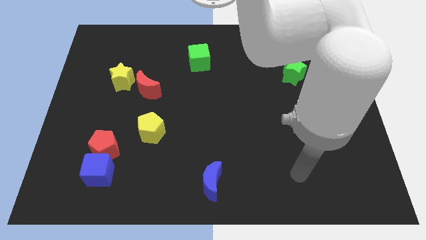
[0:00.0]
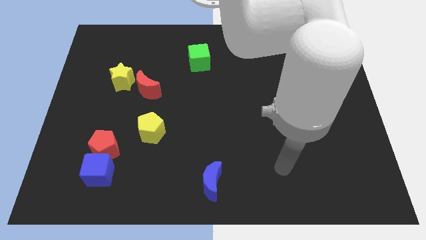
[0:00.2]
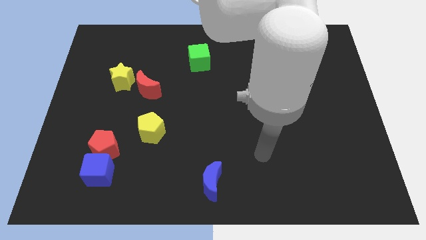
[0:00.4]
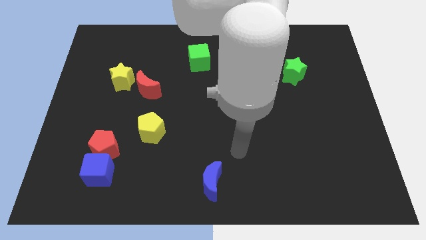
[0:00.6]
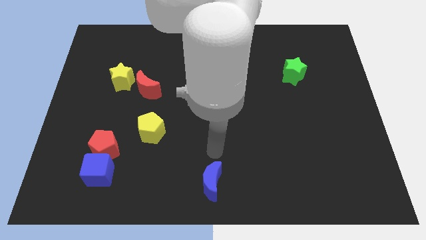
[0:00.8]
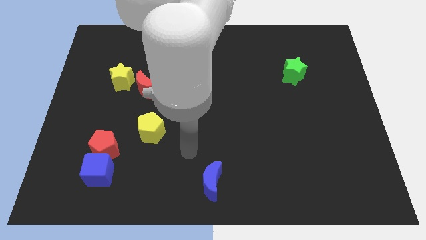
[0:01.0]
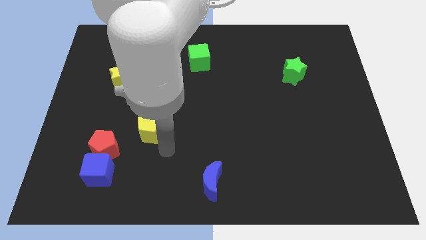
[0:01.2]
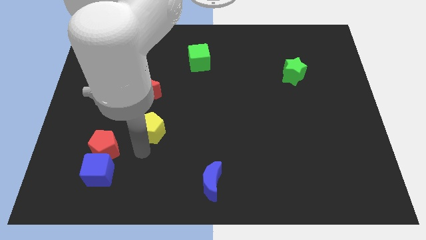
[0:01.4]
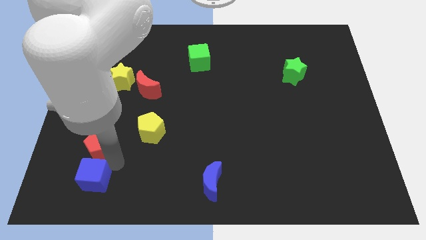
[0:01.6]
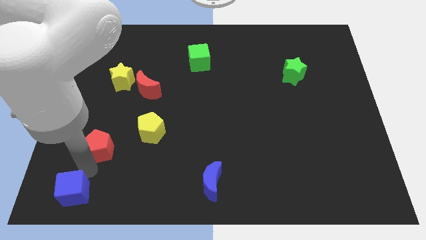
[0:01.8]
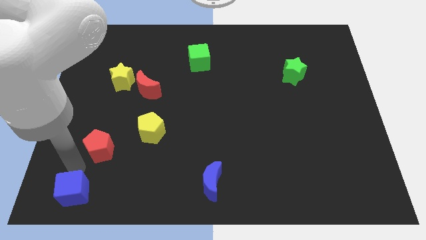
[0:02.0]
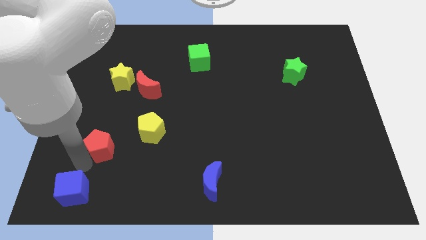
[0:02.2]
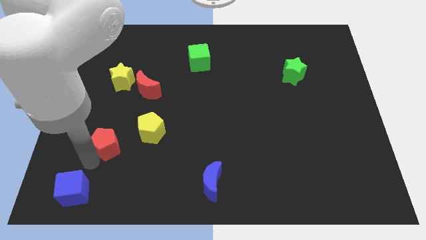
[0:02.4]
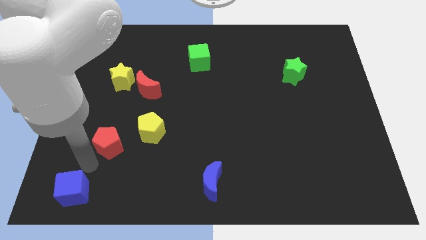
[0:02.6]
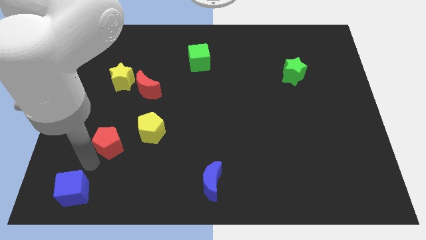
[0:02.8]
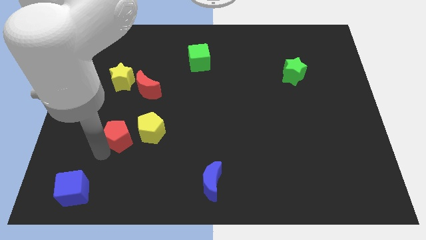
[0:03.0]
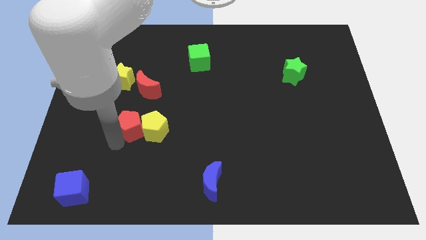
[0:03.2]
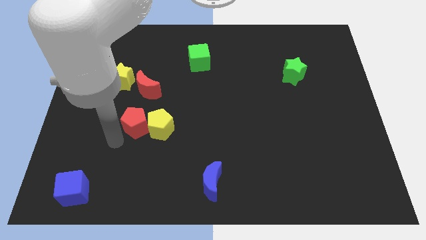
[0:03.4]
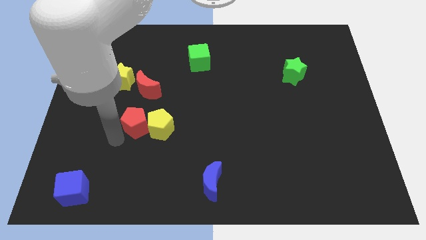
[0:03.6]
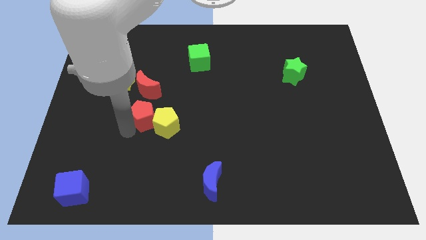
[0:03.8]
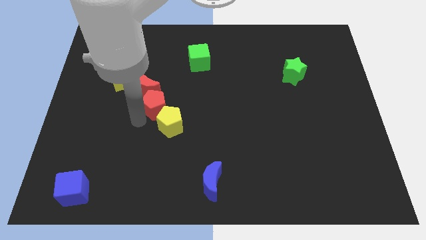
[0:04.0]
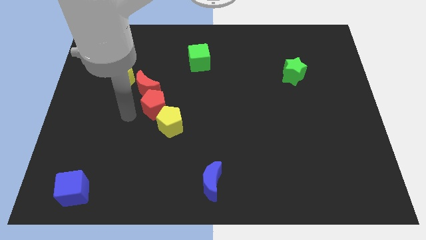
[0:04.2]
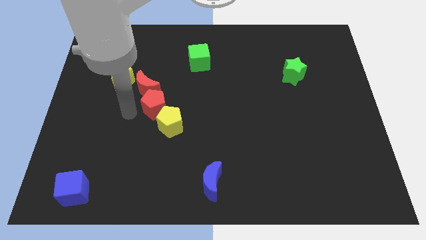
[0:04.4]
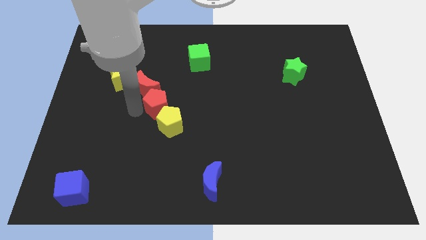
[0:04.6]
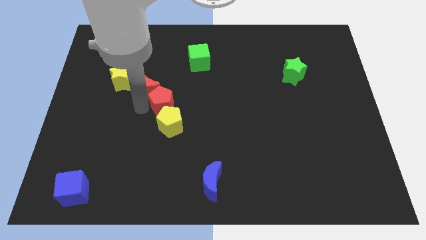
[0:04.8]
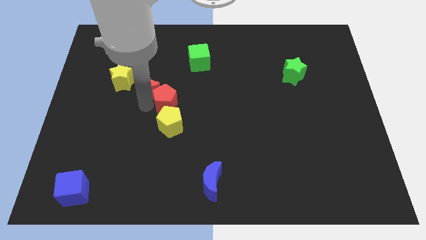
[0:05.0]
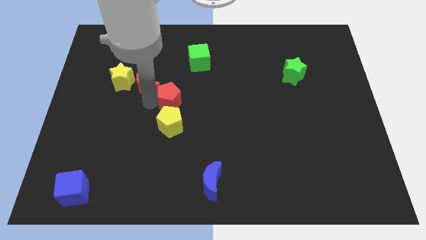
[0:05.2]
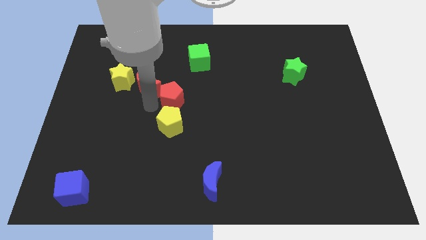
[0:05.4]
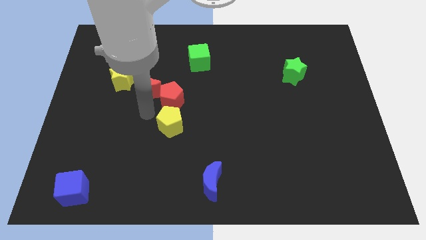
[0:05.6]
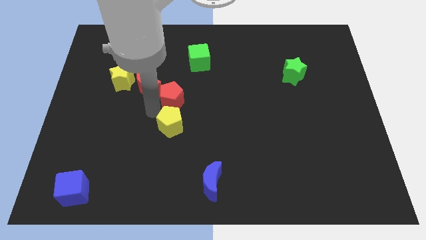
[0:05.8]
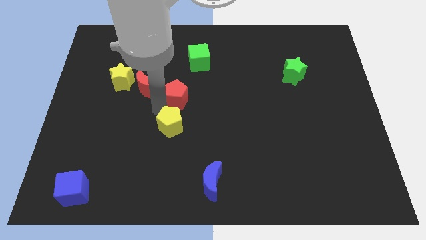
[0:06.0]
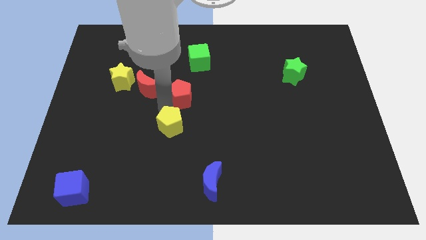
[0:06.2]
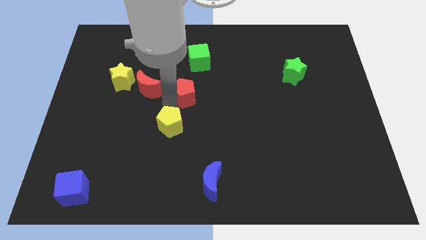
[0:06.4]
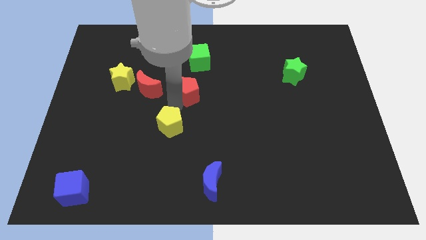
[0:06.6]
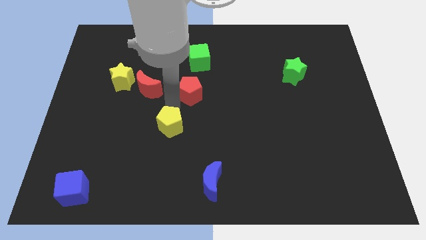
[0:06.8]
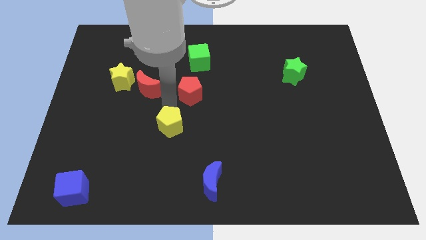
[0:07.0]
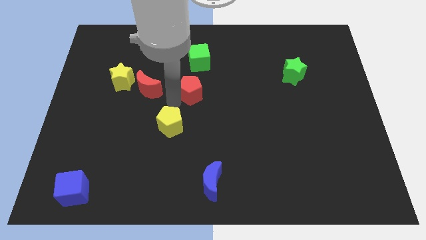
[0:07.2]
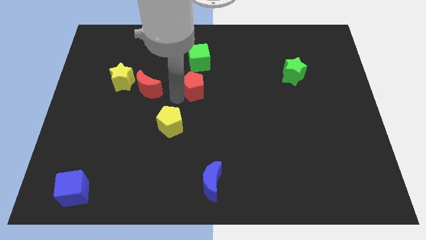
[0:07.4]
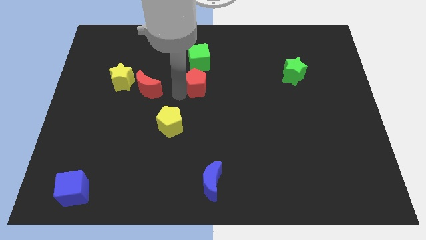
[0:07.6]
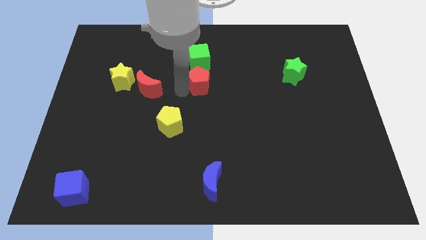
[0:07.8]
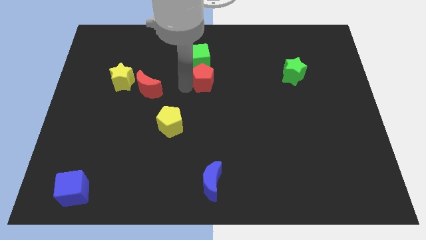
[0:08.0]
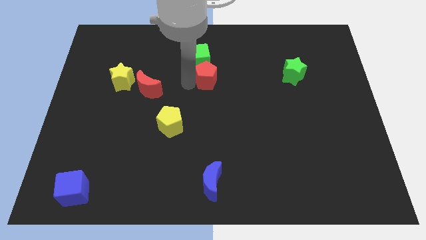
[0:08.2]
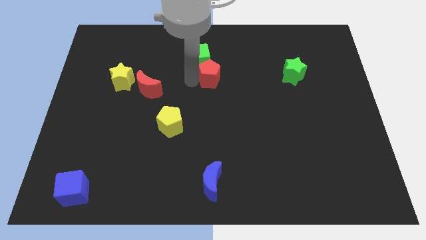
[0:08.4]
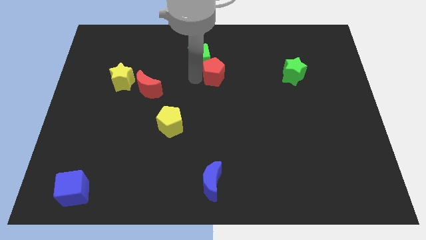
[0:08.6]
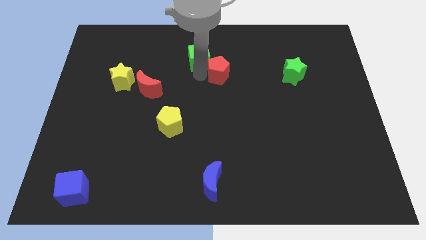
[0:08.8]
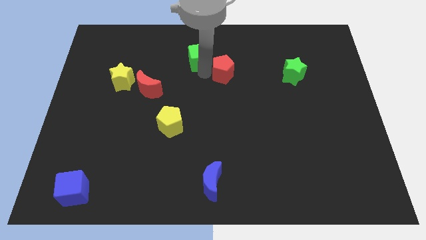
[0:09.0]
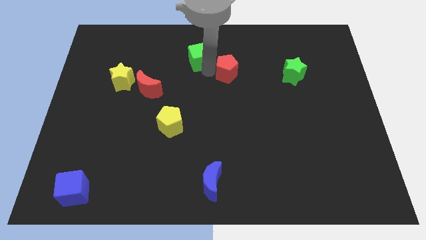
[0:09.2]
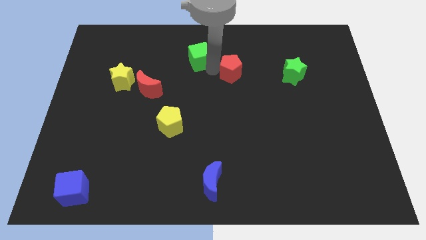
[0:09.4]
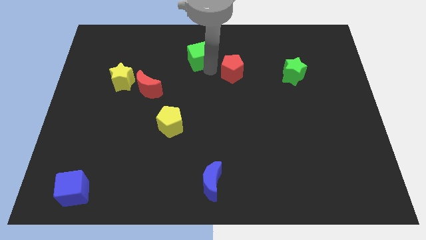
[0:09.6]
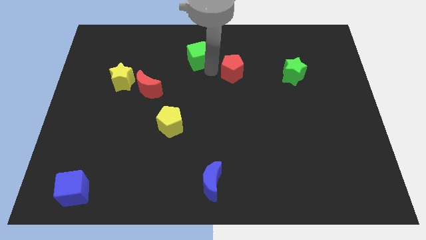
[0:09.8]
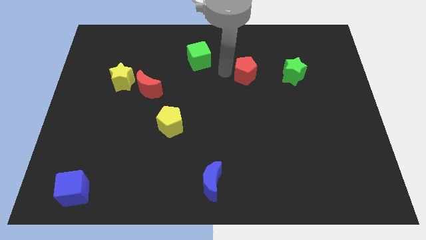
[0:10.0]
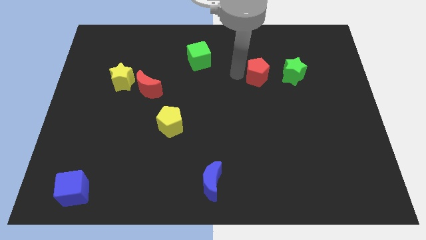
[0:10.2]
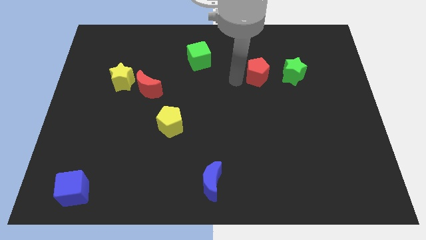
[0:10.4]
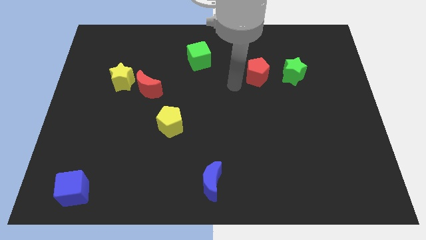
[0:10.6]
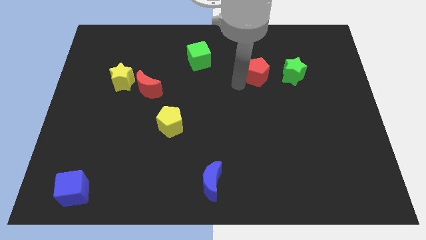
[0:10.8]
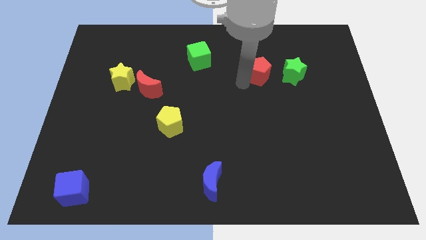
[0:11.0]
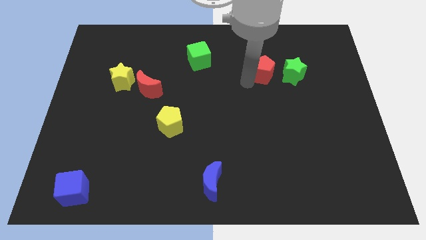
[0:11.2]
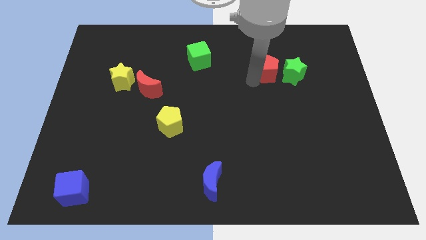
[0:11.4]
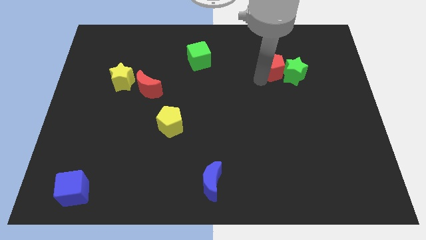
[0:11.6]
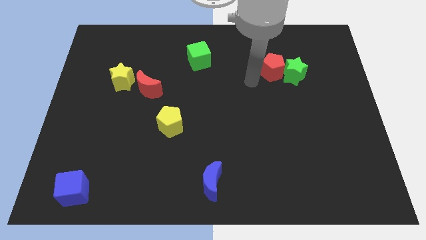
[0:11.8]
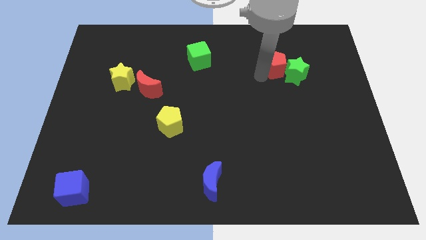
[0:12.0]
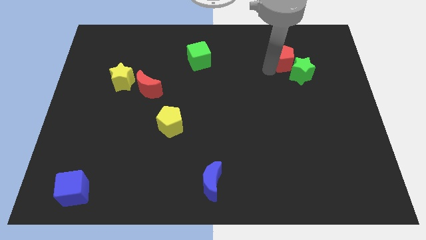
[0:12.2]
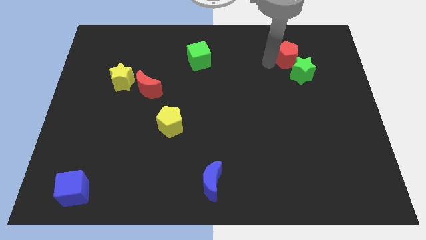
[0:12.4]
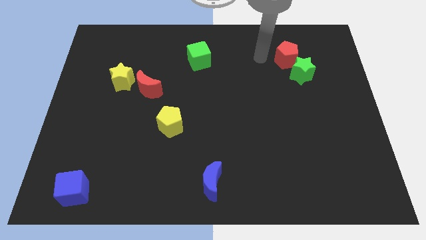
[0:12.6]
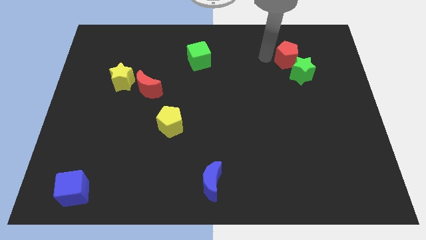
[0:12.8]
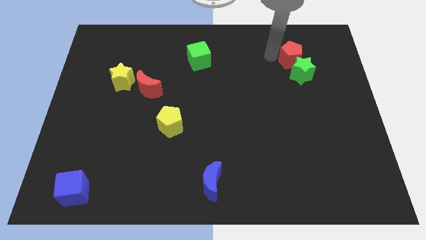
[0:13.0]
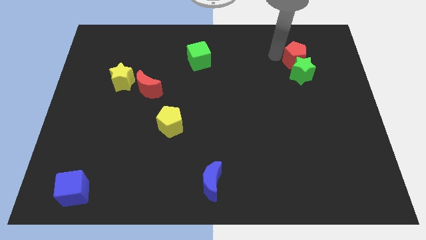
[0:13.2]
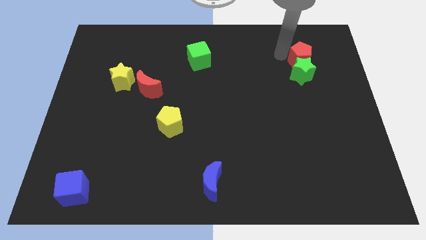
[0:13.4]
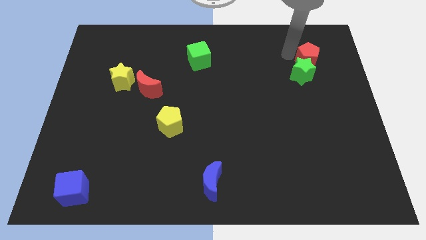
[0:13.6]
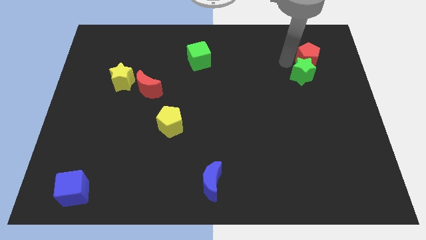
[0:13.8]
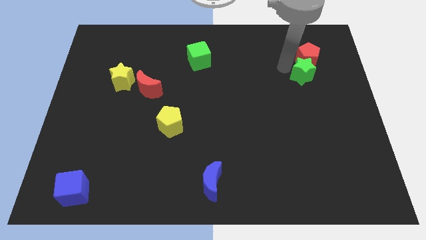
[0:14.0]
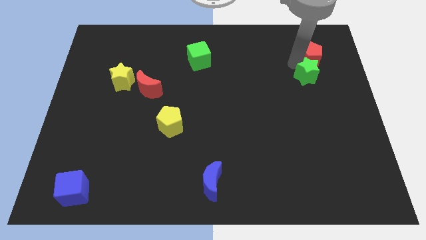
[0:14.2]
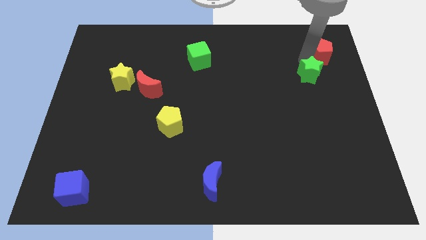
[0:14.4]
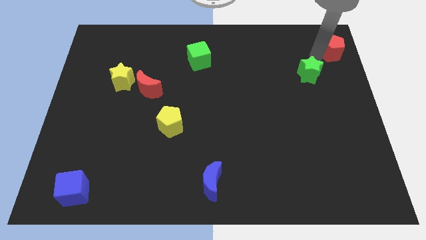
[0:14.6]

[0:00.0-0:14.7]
push the red pentagon to the top right corner
